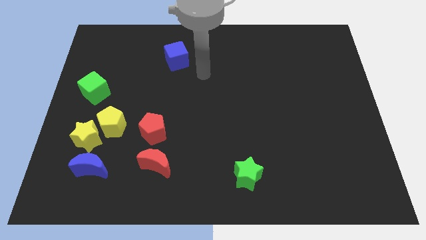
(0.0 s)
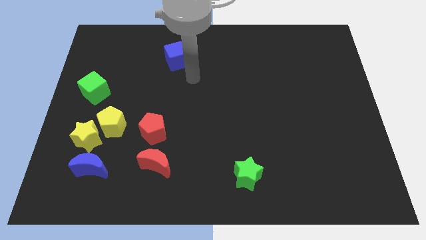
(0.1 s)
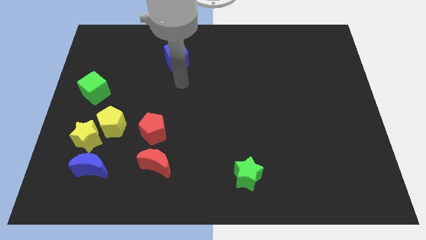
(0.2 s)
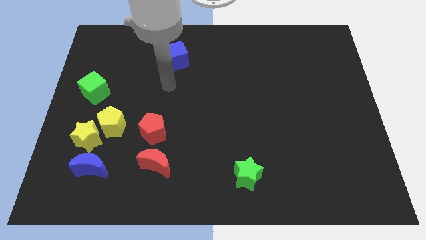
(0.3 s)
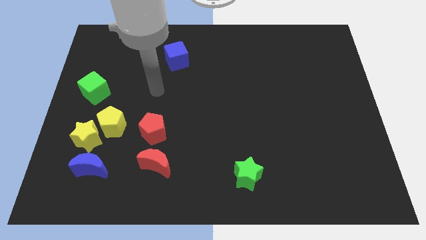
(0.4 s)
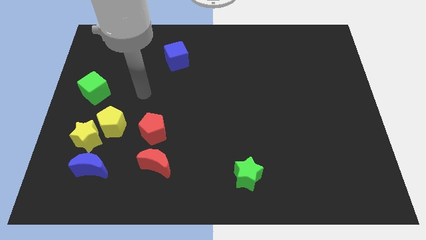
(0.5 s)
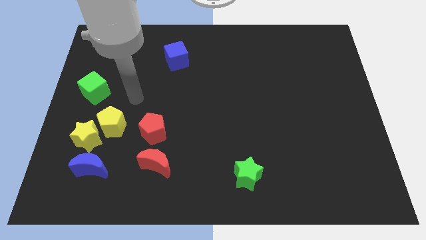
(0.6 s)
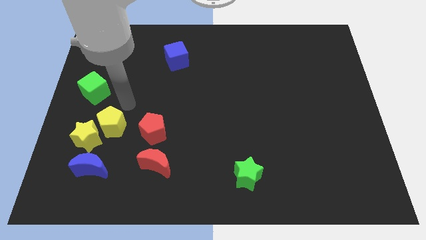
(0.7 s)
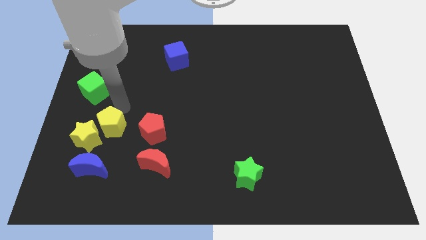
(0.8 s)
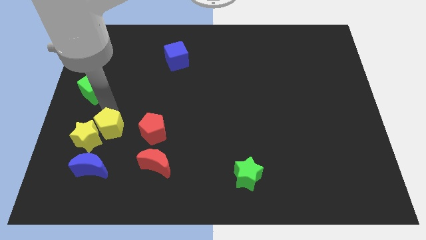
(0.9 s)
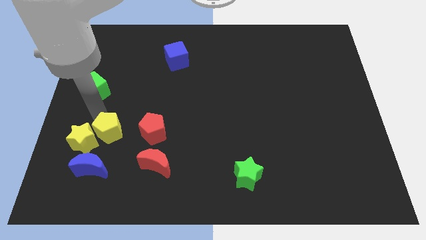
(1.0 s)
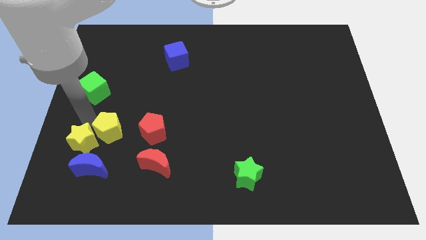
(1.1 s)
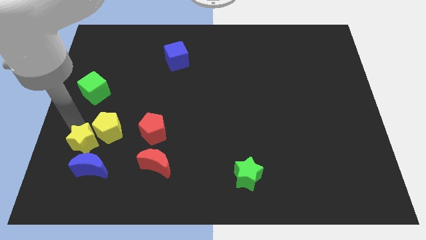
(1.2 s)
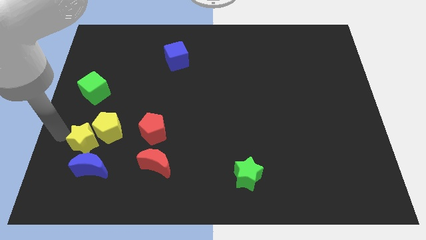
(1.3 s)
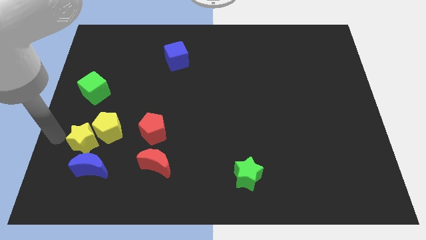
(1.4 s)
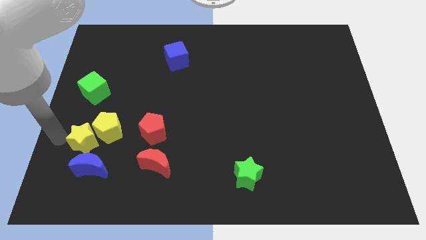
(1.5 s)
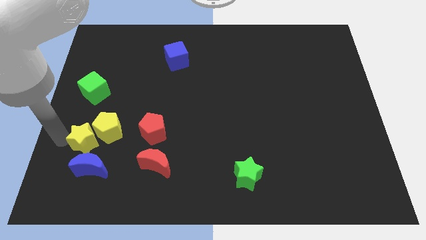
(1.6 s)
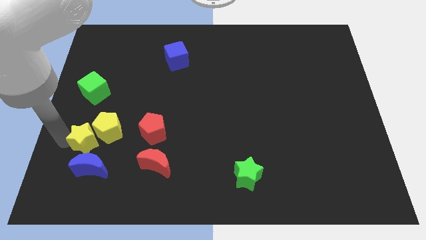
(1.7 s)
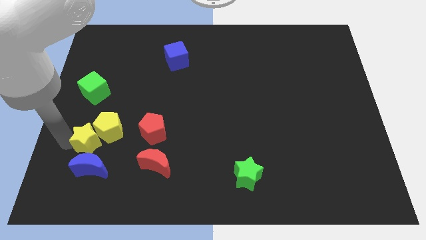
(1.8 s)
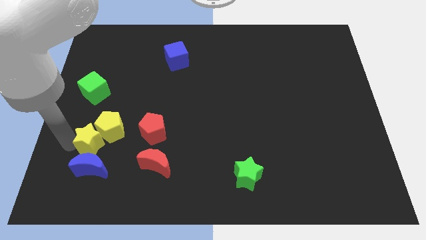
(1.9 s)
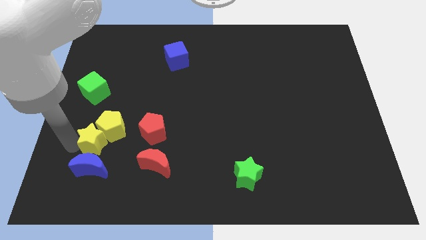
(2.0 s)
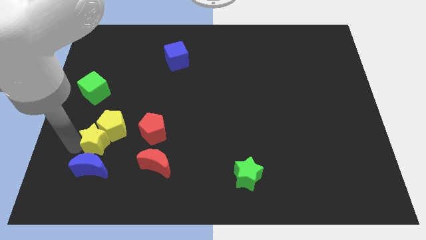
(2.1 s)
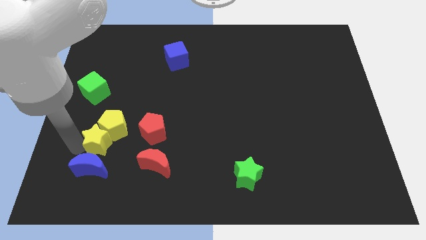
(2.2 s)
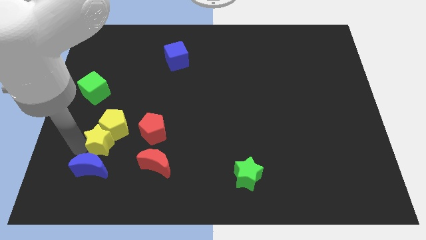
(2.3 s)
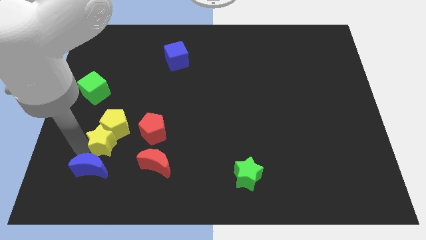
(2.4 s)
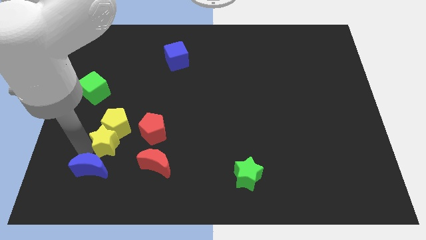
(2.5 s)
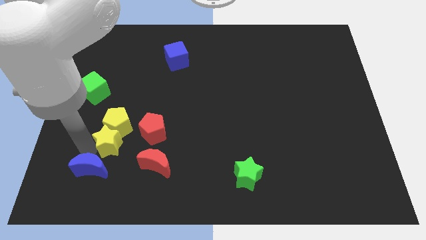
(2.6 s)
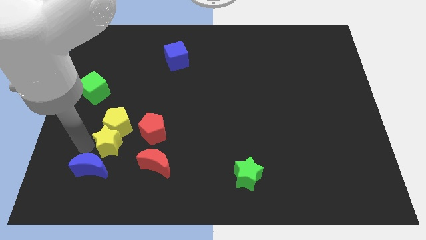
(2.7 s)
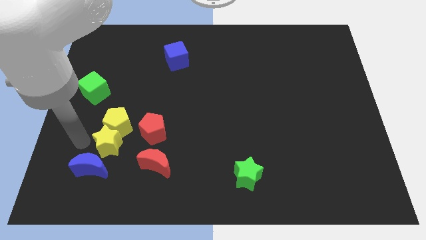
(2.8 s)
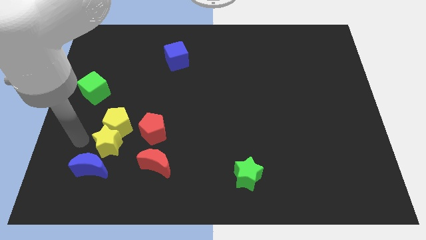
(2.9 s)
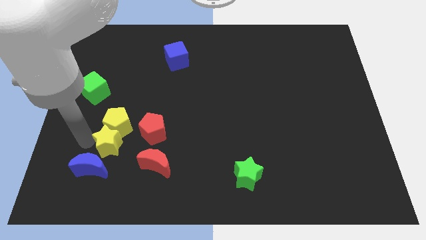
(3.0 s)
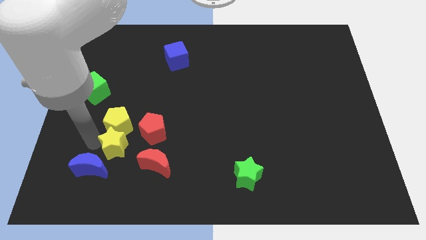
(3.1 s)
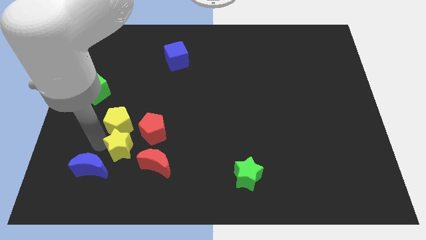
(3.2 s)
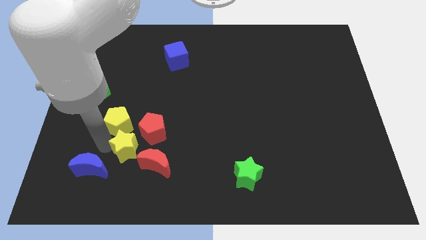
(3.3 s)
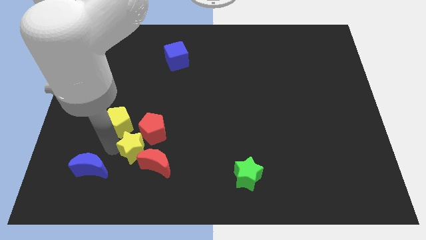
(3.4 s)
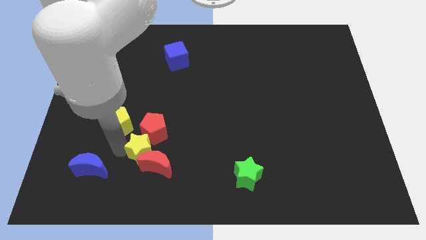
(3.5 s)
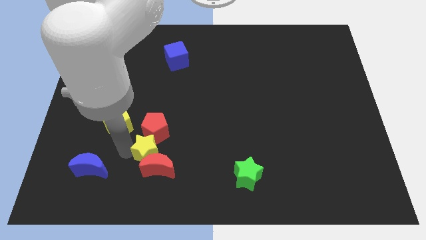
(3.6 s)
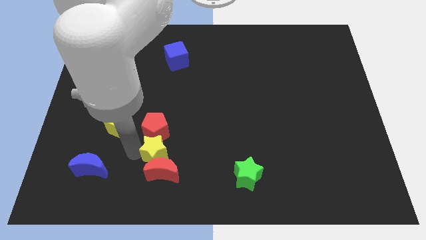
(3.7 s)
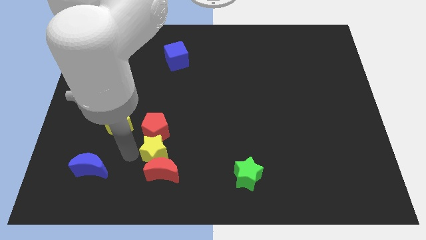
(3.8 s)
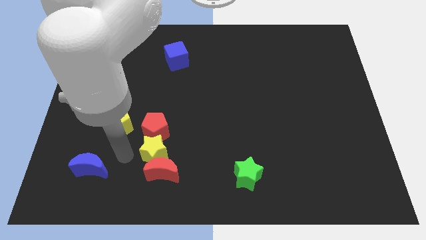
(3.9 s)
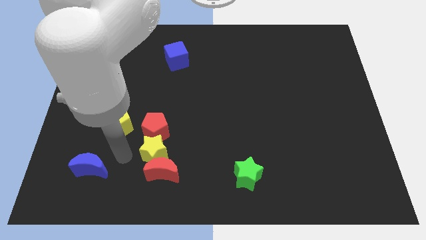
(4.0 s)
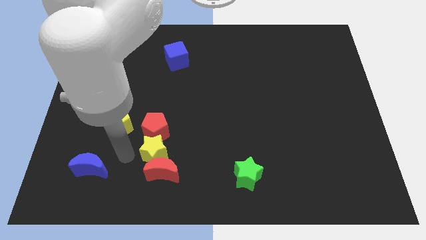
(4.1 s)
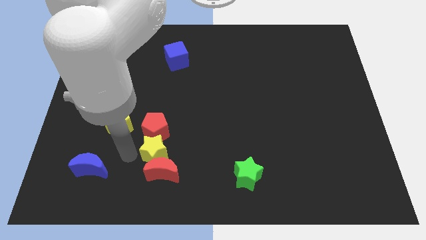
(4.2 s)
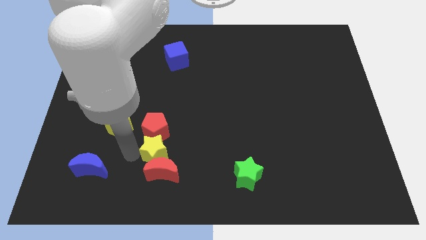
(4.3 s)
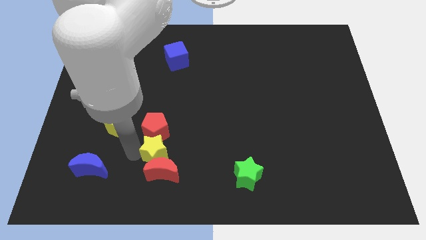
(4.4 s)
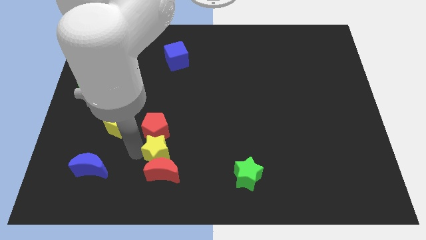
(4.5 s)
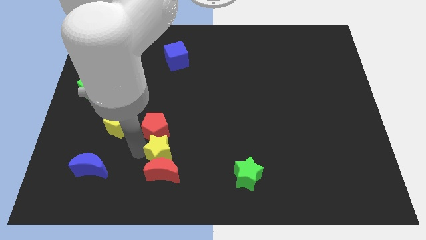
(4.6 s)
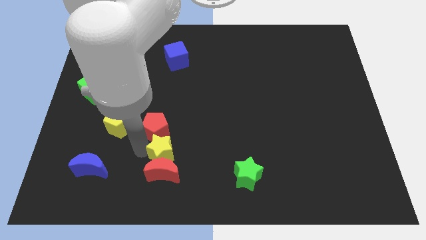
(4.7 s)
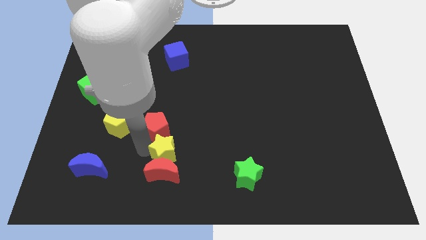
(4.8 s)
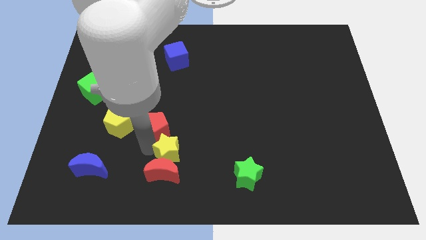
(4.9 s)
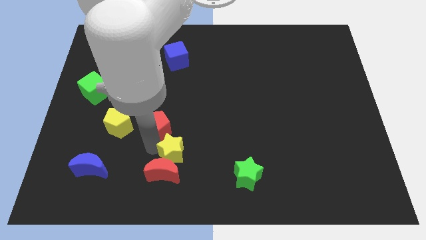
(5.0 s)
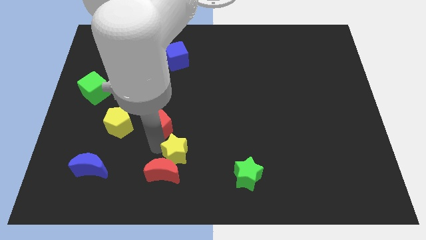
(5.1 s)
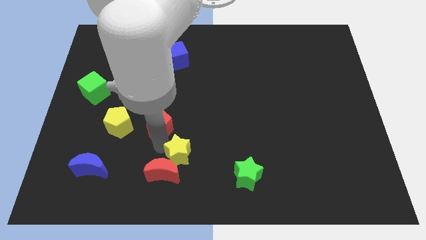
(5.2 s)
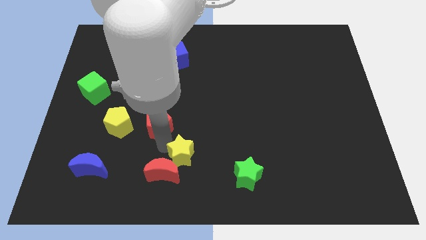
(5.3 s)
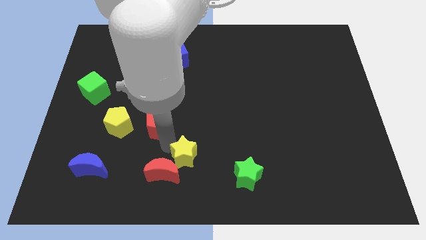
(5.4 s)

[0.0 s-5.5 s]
push the yellow star left of the green star

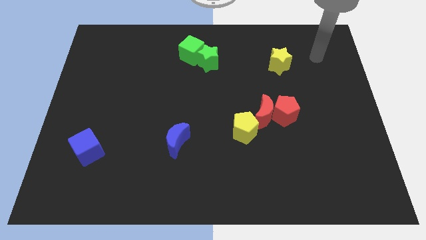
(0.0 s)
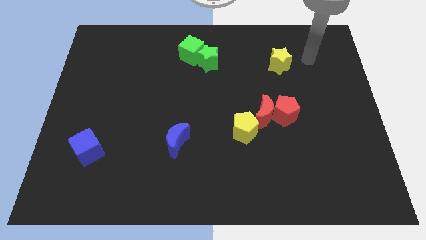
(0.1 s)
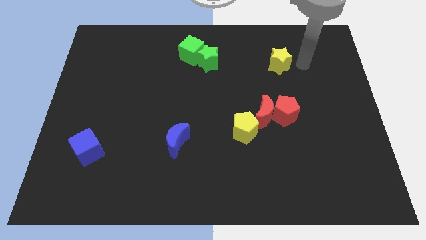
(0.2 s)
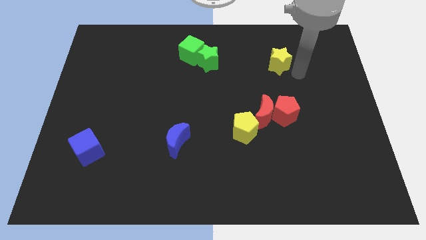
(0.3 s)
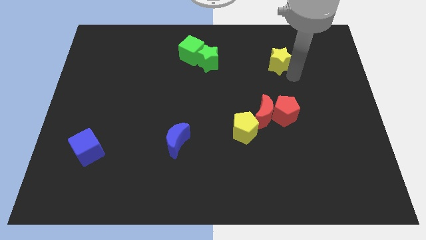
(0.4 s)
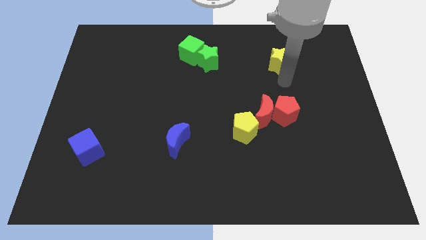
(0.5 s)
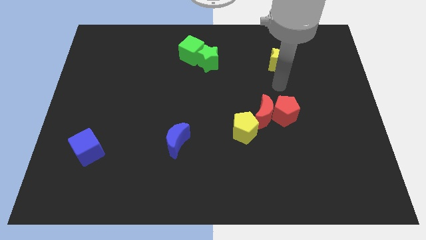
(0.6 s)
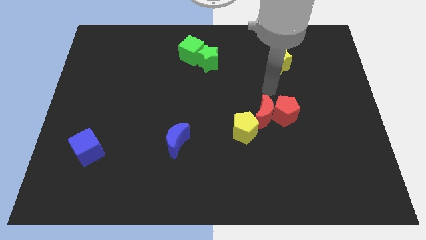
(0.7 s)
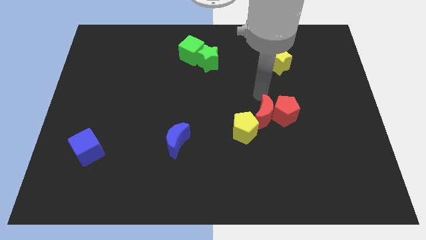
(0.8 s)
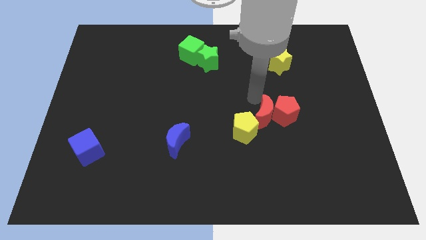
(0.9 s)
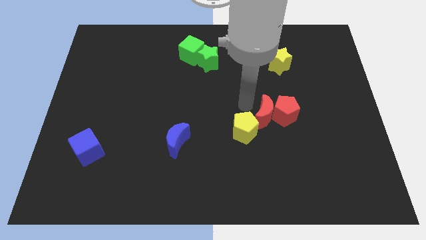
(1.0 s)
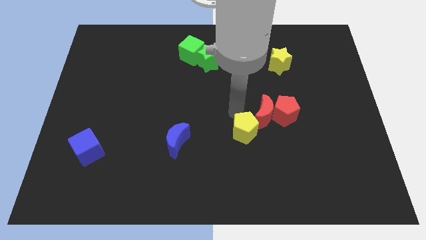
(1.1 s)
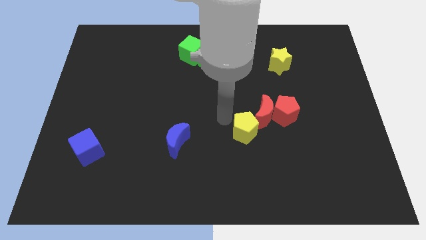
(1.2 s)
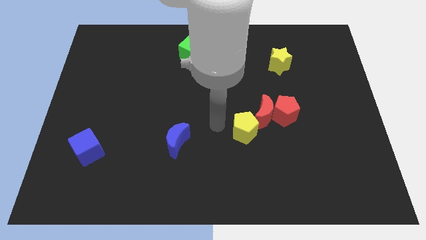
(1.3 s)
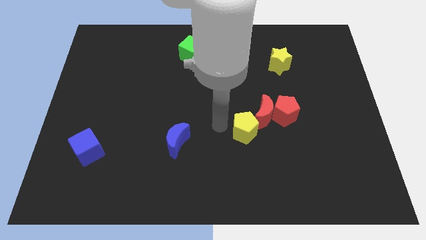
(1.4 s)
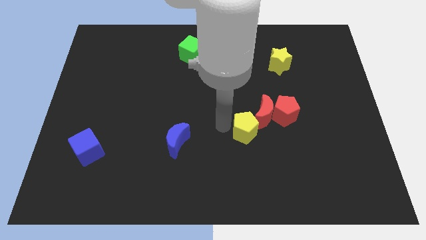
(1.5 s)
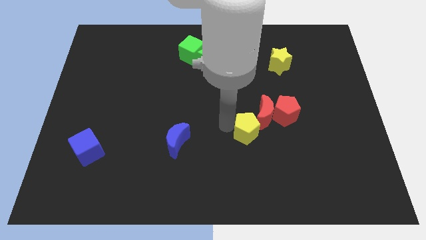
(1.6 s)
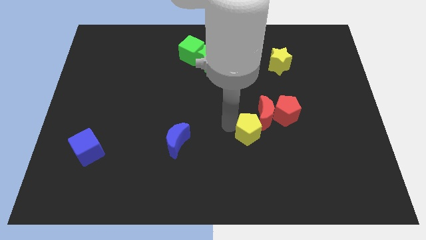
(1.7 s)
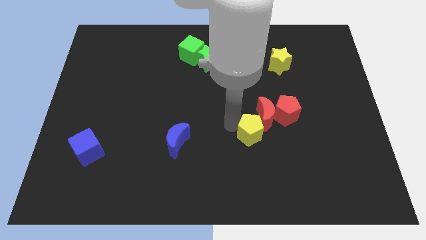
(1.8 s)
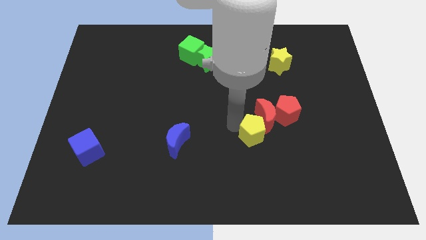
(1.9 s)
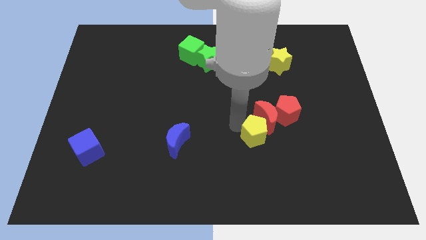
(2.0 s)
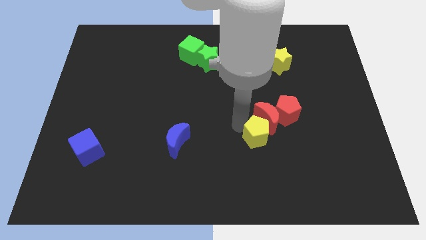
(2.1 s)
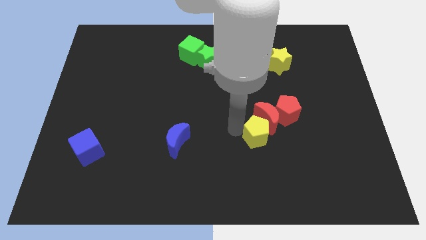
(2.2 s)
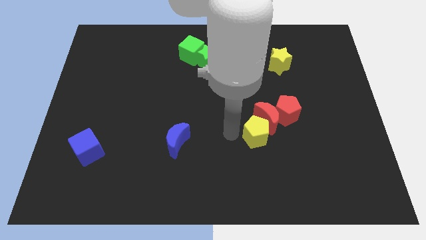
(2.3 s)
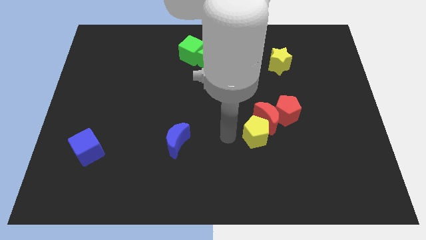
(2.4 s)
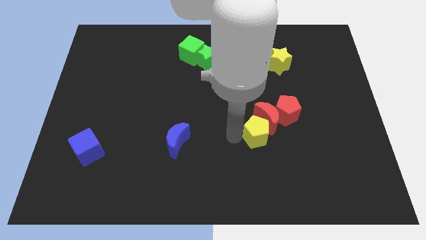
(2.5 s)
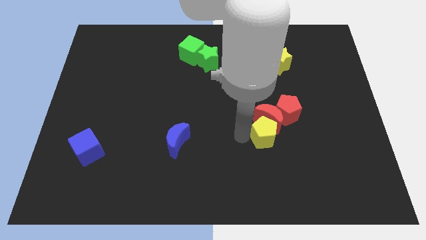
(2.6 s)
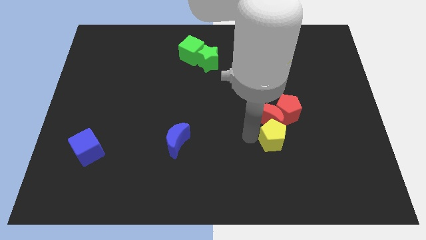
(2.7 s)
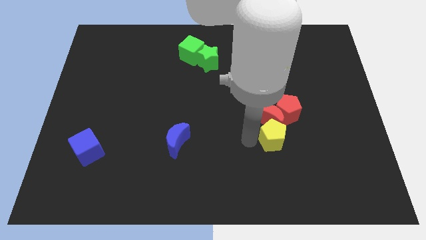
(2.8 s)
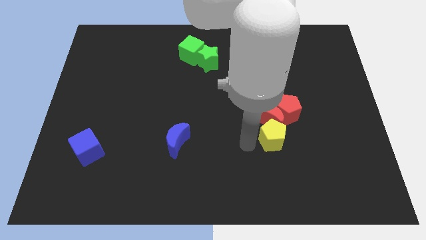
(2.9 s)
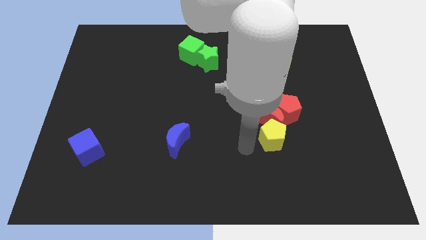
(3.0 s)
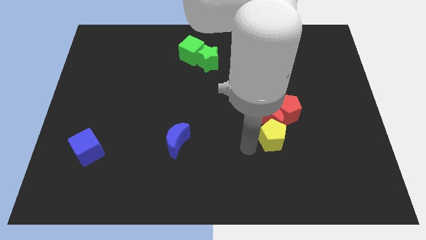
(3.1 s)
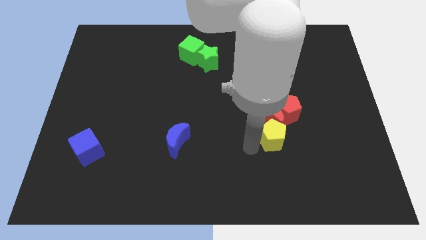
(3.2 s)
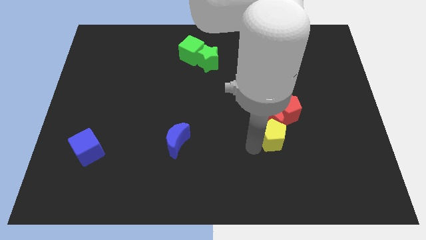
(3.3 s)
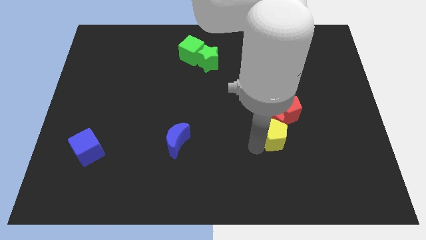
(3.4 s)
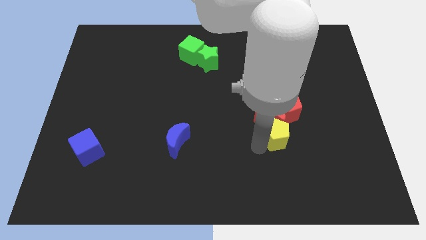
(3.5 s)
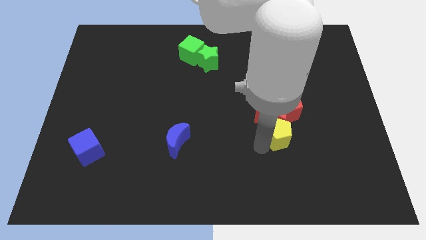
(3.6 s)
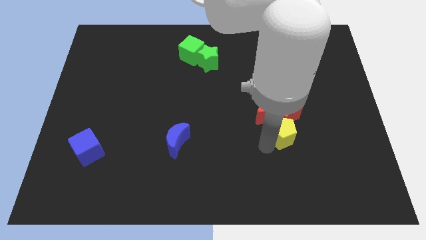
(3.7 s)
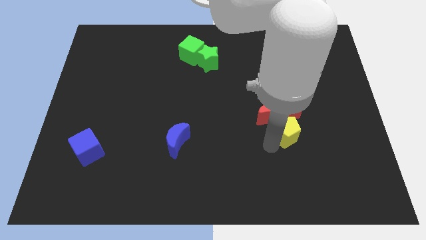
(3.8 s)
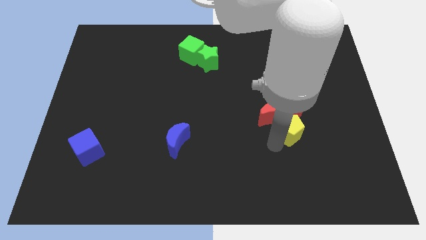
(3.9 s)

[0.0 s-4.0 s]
move the yellow pentagon right of the red moon
